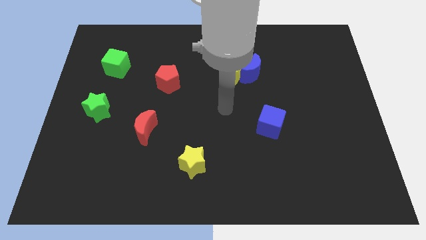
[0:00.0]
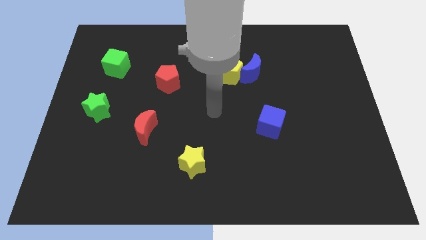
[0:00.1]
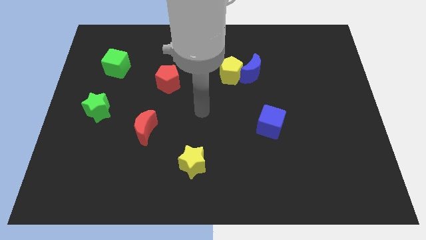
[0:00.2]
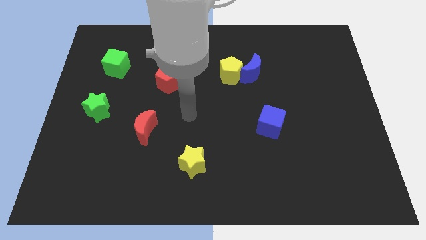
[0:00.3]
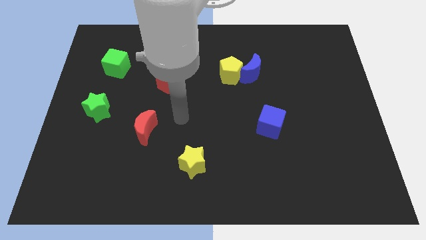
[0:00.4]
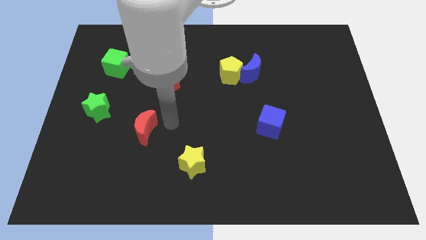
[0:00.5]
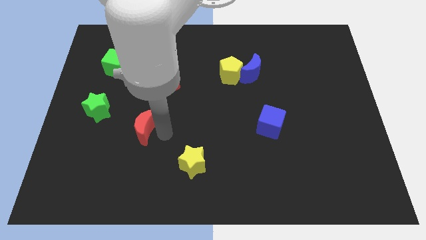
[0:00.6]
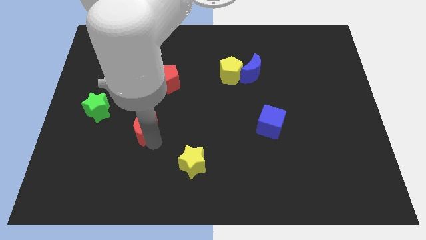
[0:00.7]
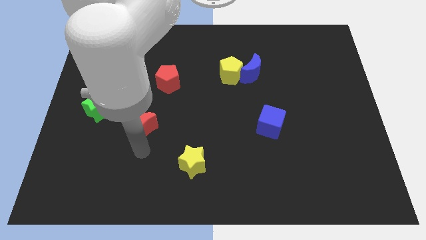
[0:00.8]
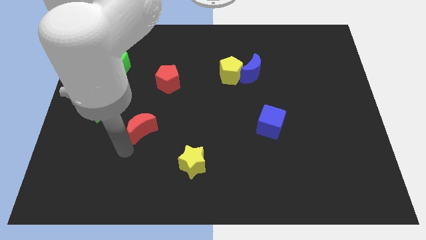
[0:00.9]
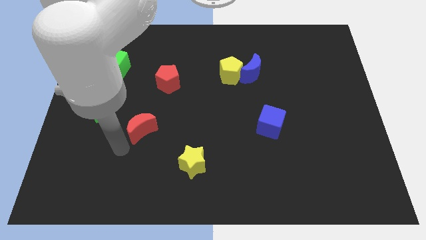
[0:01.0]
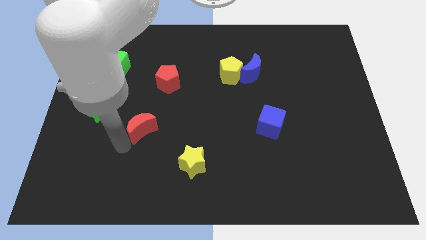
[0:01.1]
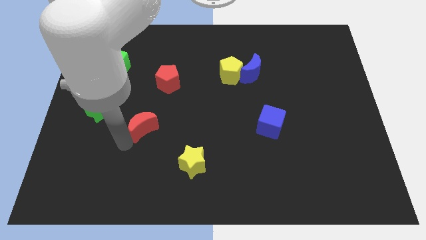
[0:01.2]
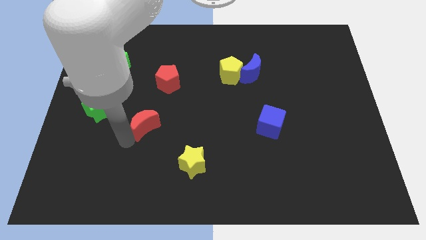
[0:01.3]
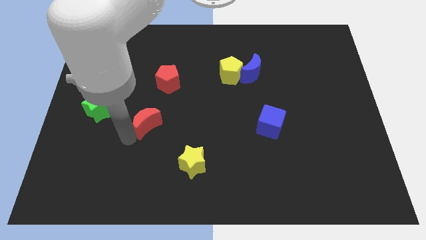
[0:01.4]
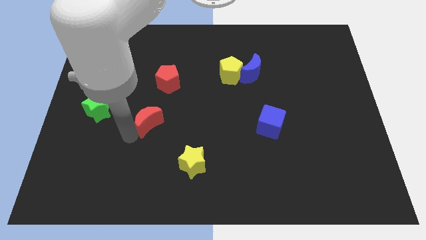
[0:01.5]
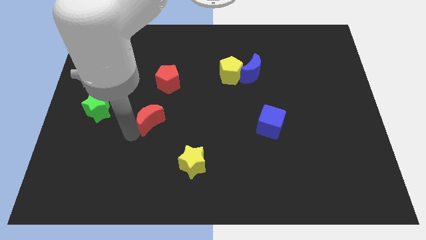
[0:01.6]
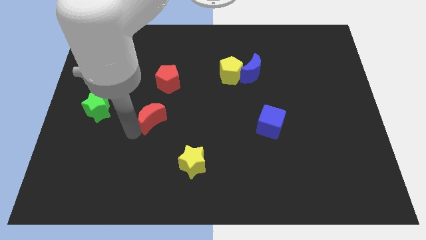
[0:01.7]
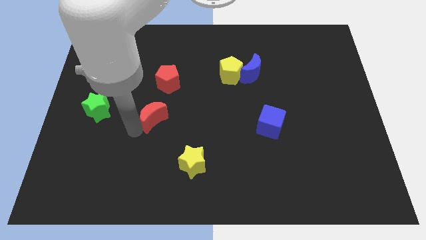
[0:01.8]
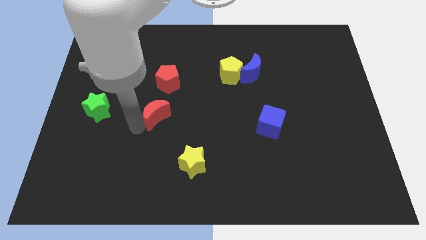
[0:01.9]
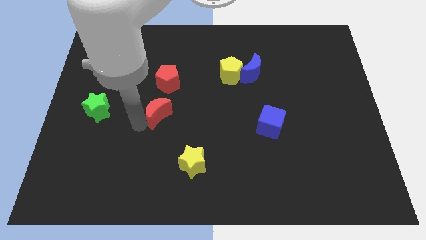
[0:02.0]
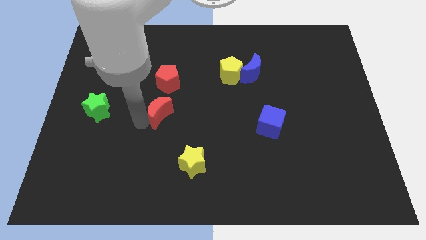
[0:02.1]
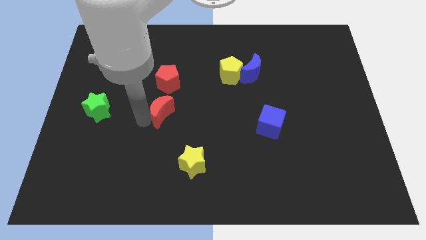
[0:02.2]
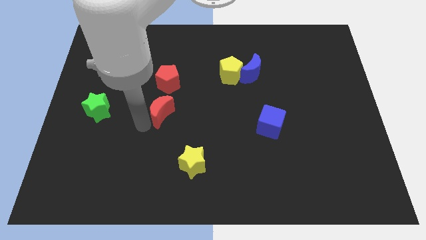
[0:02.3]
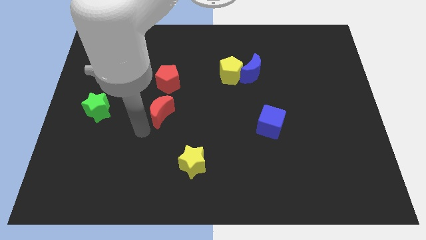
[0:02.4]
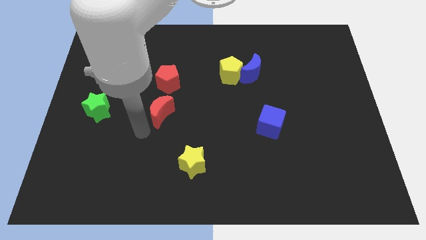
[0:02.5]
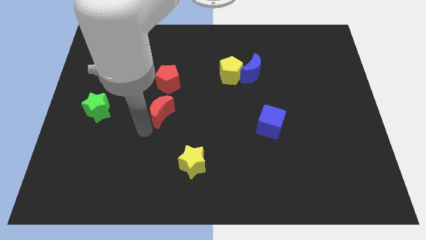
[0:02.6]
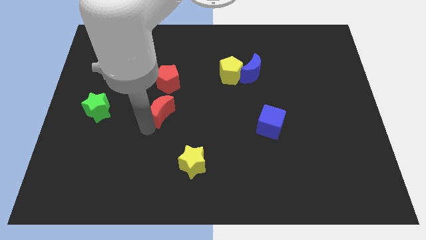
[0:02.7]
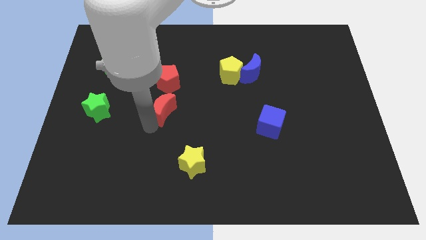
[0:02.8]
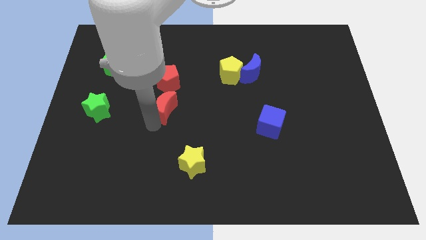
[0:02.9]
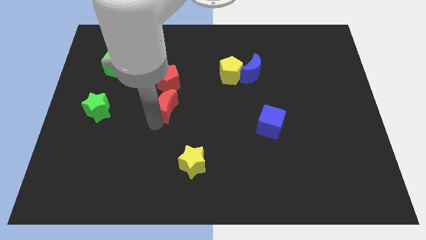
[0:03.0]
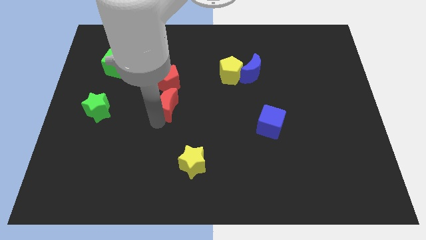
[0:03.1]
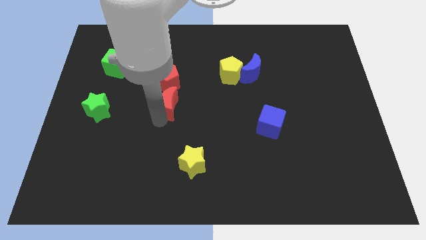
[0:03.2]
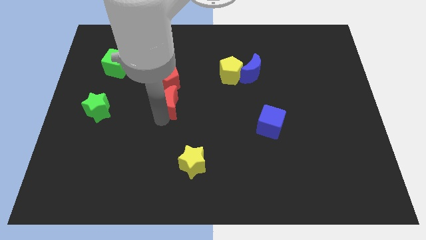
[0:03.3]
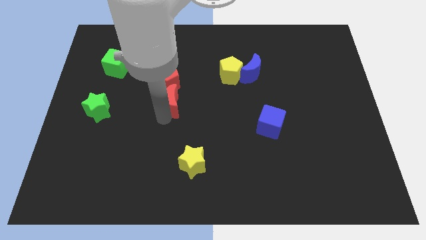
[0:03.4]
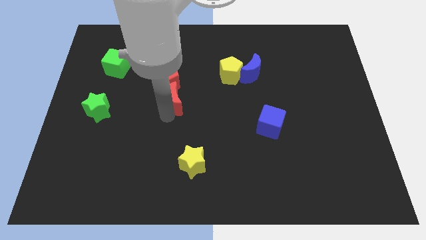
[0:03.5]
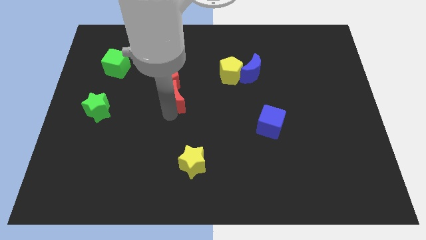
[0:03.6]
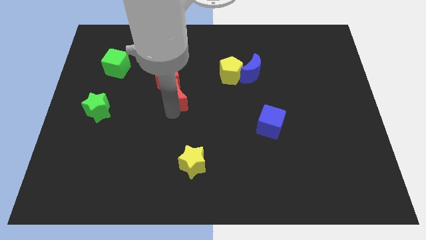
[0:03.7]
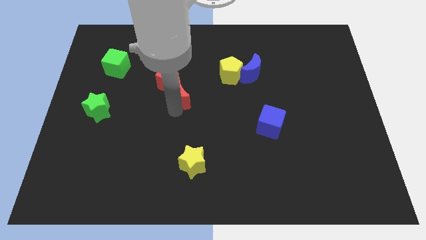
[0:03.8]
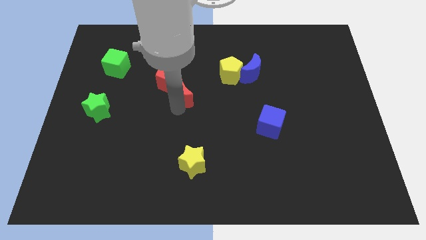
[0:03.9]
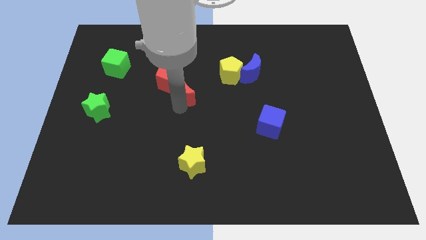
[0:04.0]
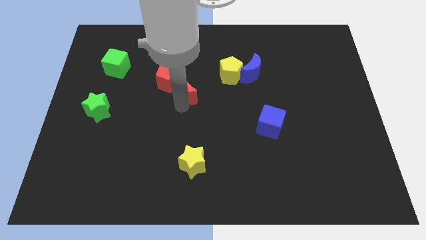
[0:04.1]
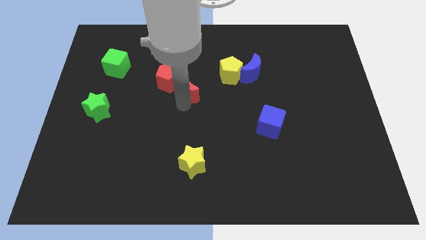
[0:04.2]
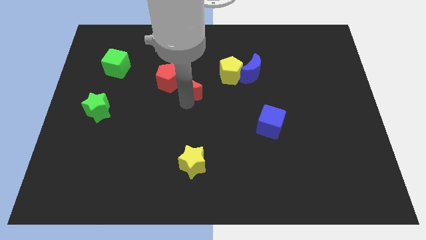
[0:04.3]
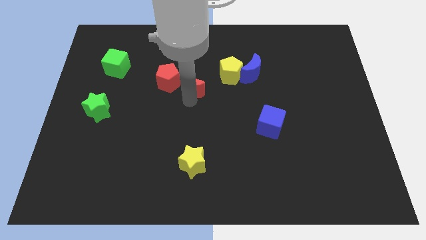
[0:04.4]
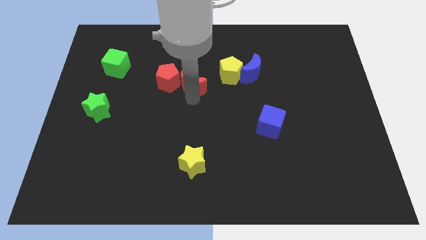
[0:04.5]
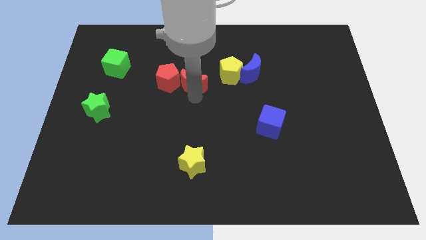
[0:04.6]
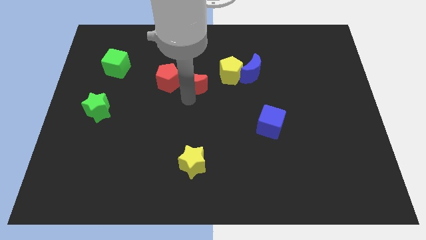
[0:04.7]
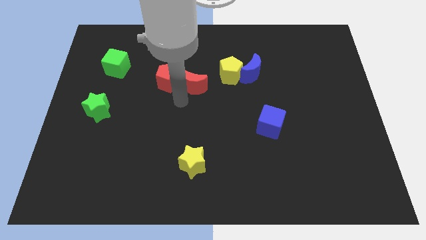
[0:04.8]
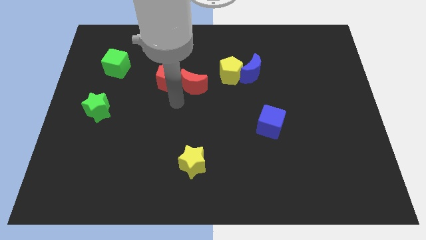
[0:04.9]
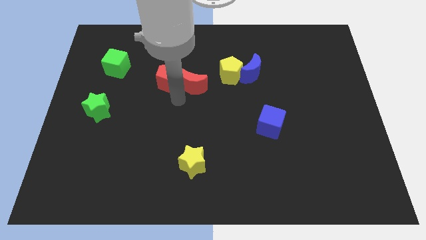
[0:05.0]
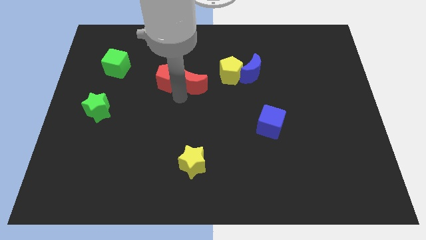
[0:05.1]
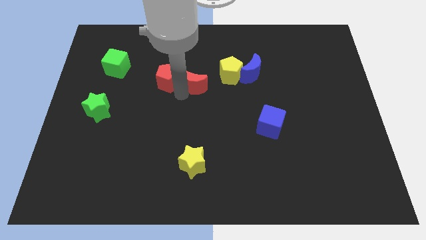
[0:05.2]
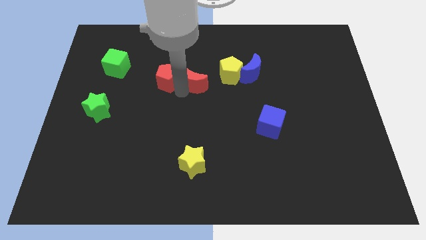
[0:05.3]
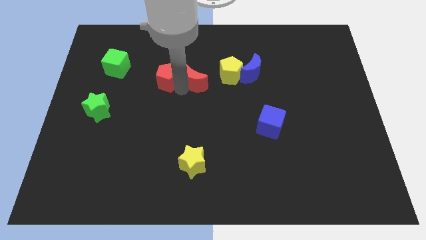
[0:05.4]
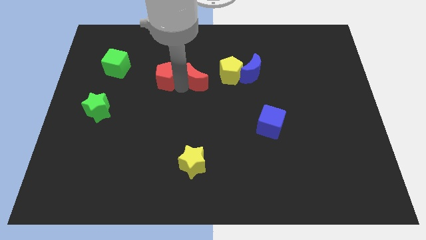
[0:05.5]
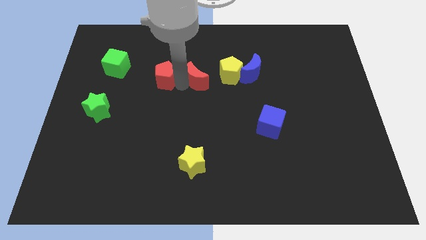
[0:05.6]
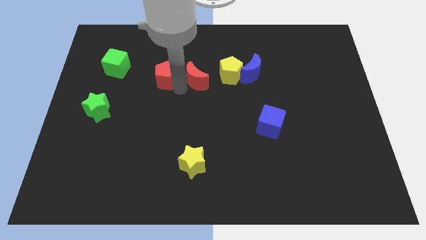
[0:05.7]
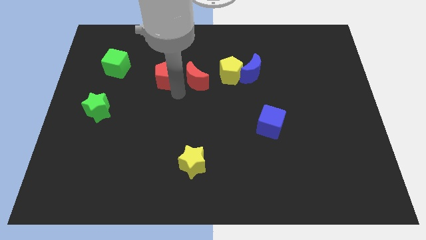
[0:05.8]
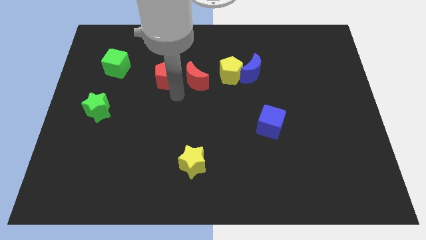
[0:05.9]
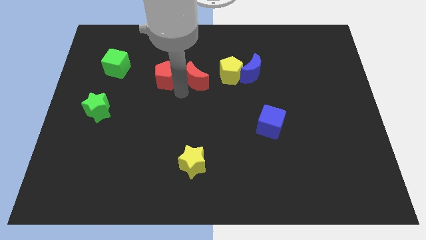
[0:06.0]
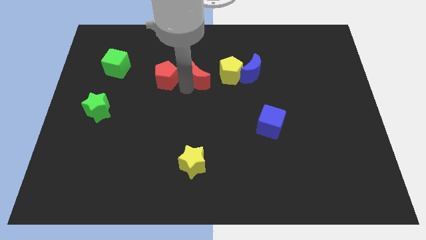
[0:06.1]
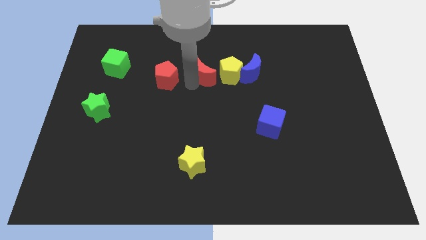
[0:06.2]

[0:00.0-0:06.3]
slide the red moon up and to the right diagonally

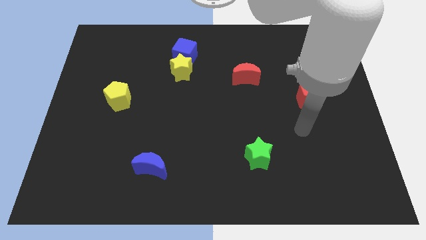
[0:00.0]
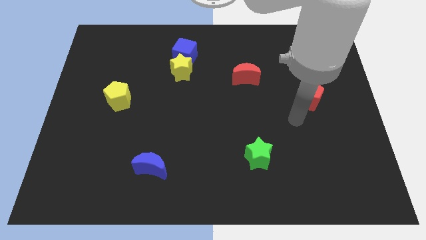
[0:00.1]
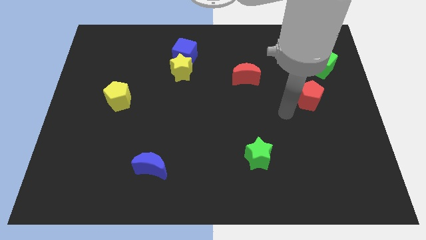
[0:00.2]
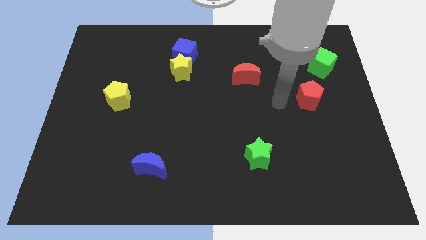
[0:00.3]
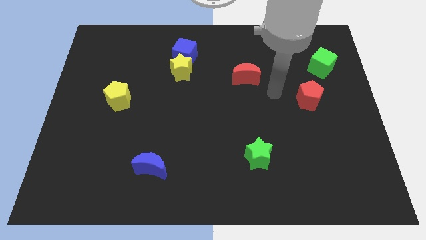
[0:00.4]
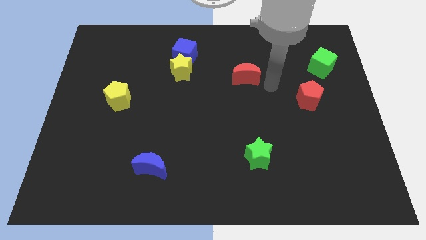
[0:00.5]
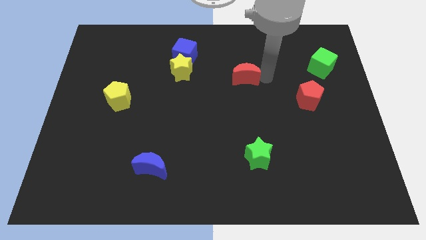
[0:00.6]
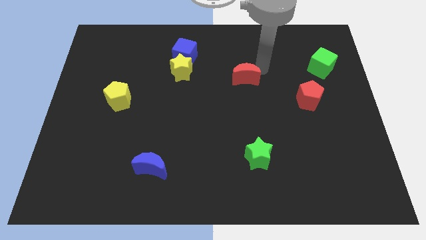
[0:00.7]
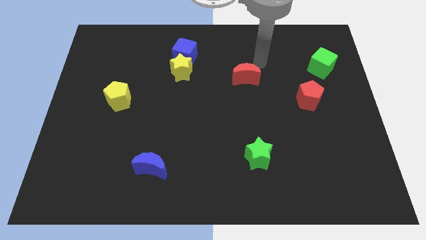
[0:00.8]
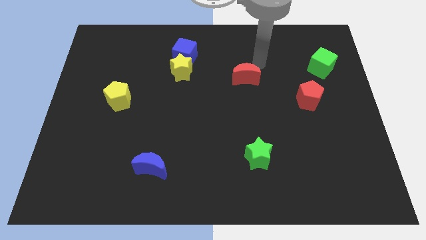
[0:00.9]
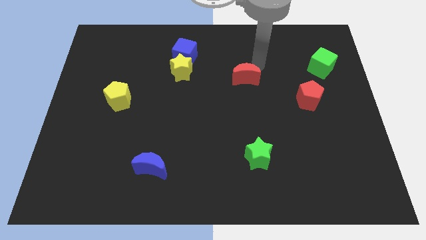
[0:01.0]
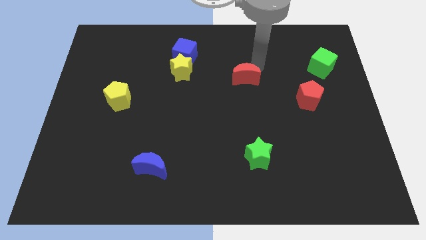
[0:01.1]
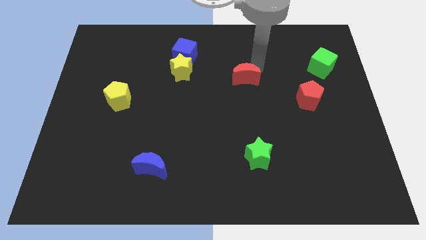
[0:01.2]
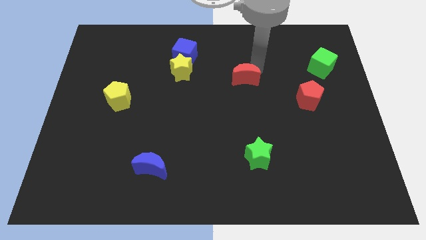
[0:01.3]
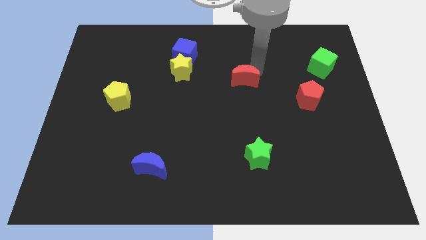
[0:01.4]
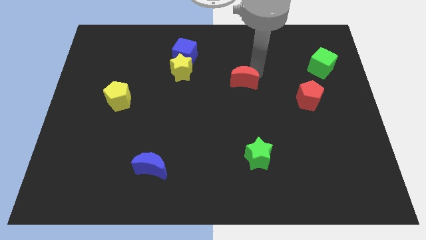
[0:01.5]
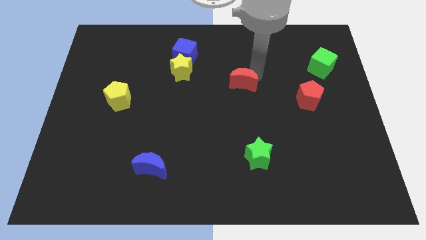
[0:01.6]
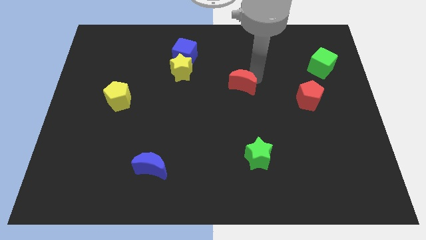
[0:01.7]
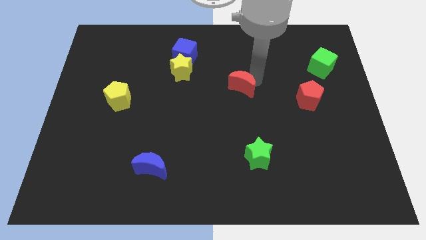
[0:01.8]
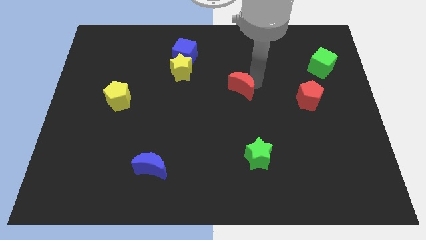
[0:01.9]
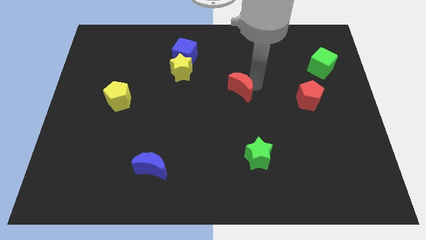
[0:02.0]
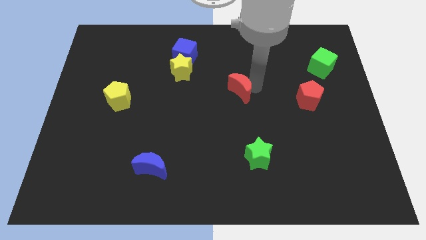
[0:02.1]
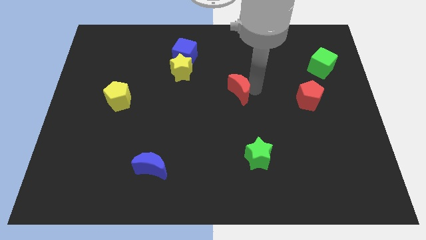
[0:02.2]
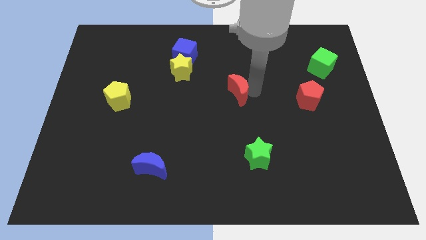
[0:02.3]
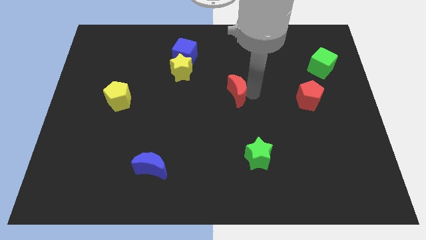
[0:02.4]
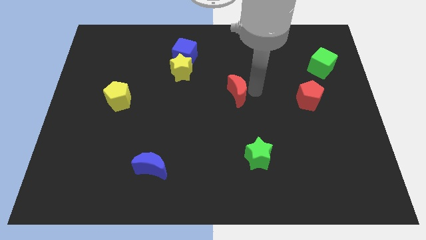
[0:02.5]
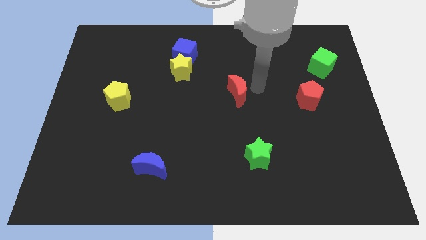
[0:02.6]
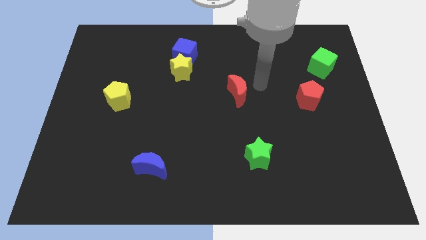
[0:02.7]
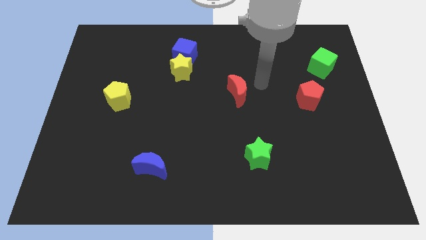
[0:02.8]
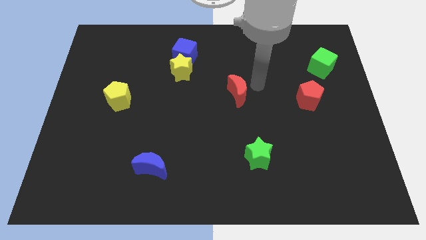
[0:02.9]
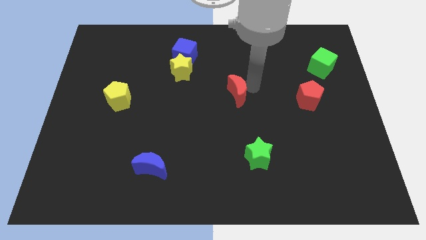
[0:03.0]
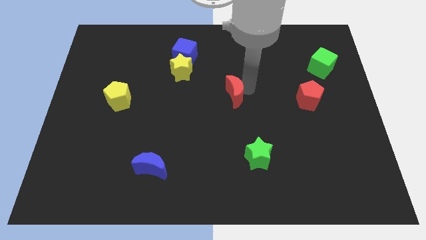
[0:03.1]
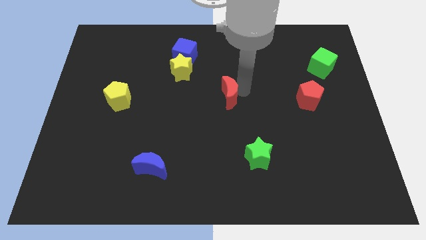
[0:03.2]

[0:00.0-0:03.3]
push the red moon downwards and to the left a bit
